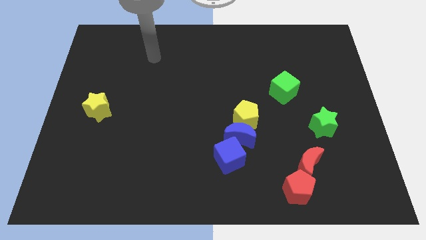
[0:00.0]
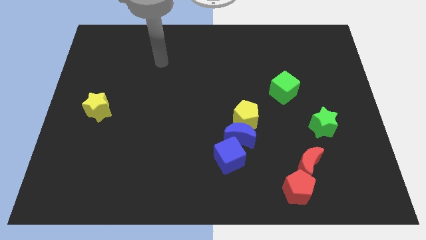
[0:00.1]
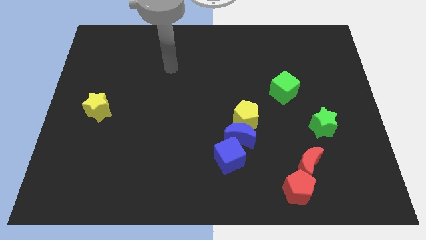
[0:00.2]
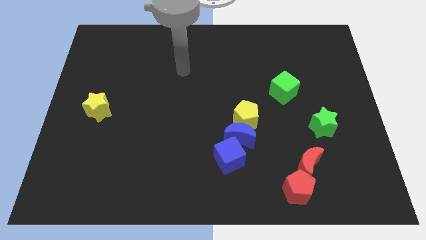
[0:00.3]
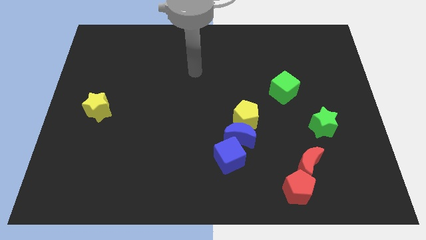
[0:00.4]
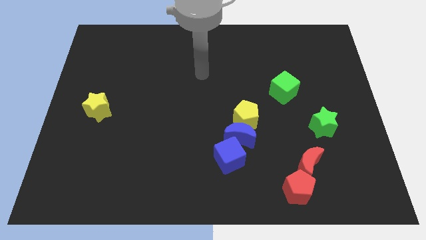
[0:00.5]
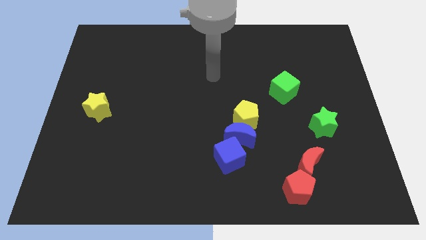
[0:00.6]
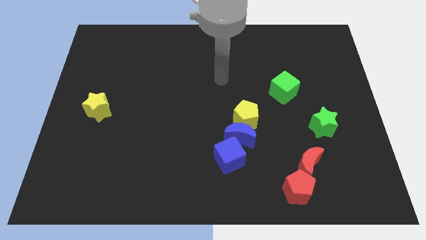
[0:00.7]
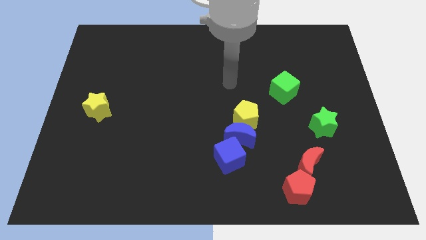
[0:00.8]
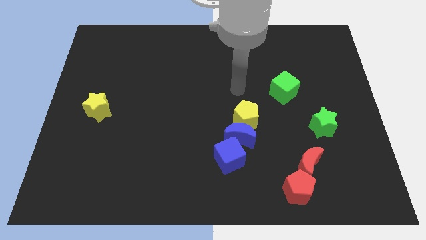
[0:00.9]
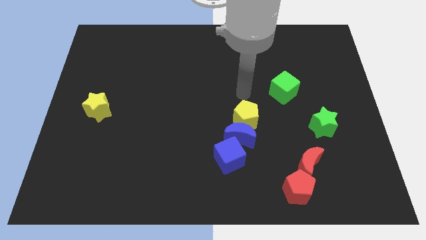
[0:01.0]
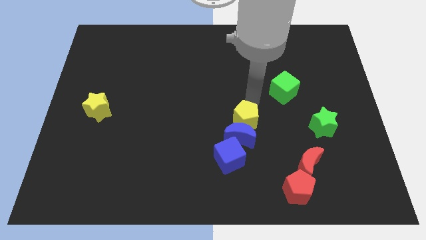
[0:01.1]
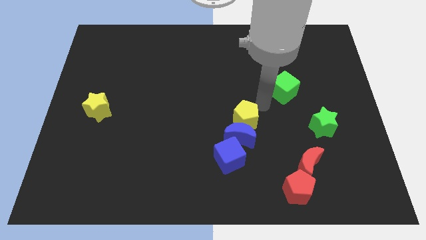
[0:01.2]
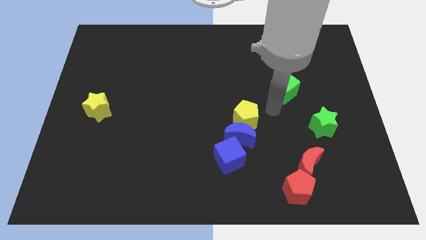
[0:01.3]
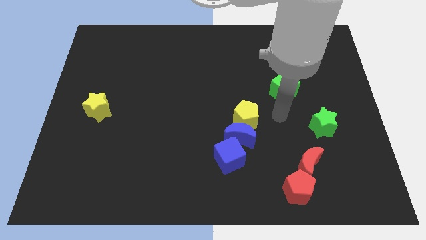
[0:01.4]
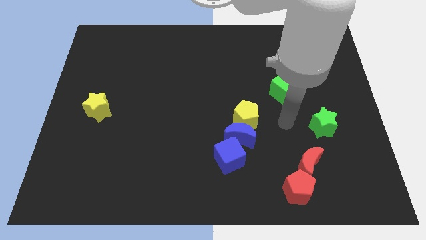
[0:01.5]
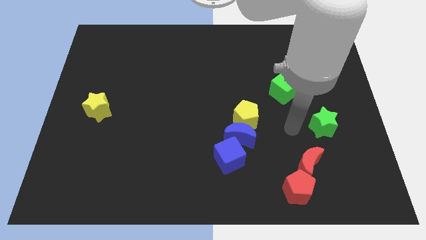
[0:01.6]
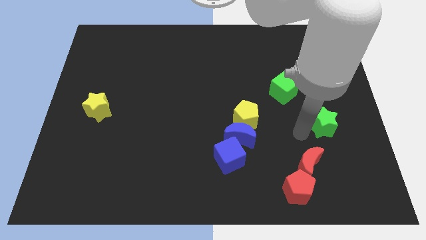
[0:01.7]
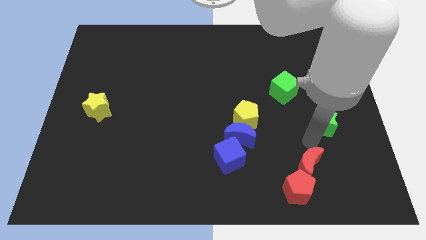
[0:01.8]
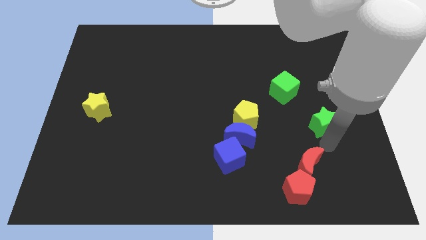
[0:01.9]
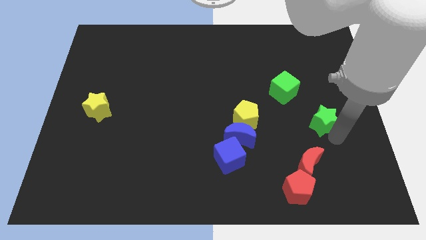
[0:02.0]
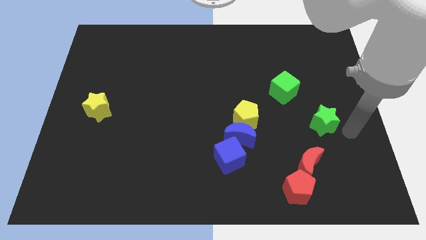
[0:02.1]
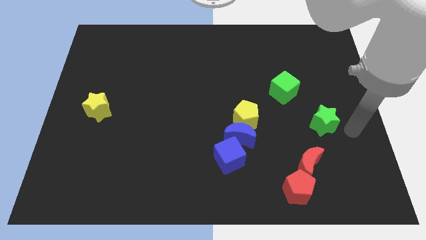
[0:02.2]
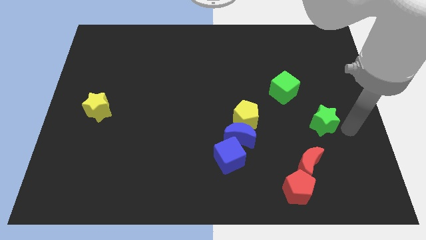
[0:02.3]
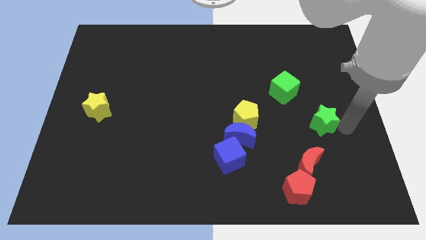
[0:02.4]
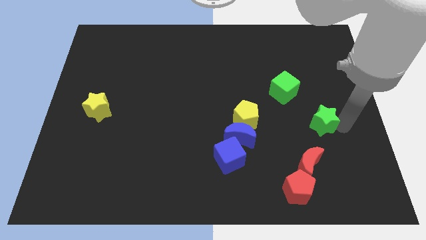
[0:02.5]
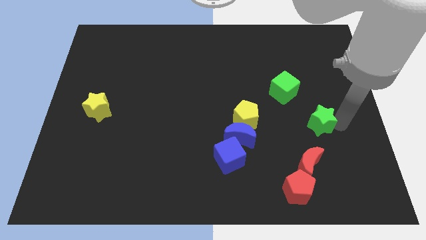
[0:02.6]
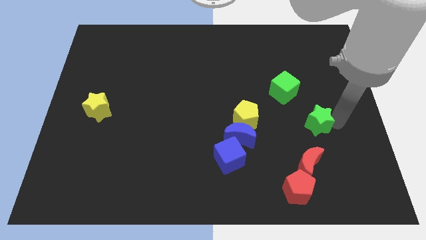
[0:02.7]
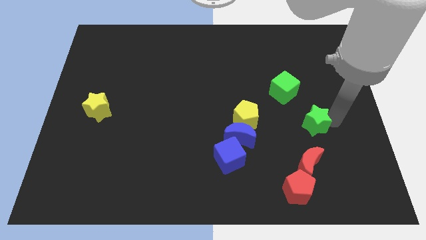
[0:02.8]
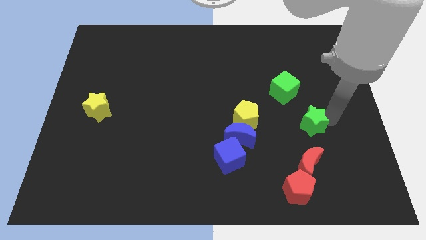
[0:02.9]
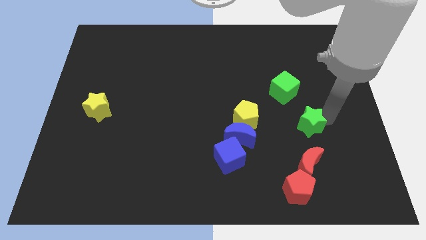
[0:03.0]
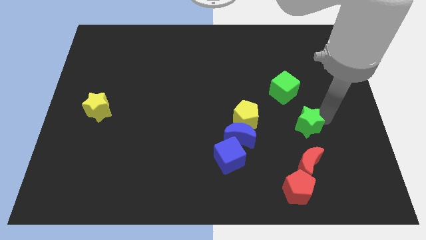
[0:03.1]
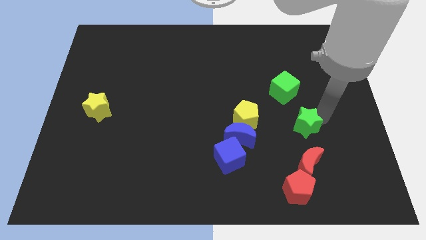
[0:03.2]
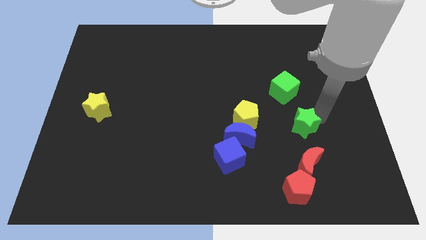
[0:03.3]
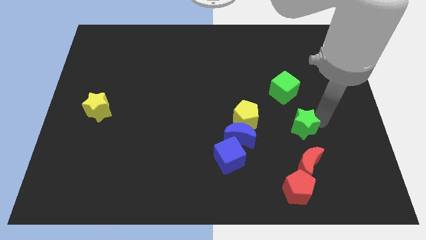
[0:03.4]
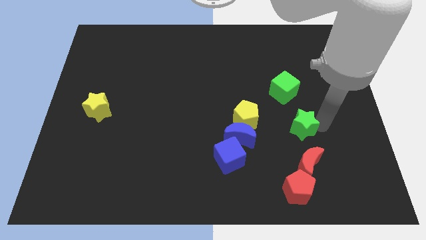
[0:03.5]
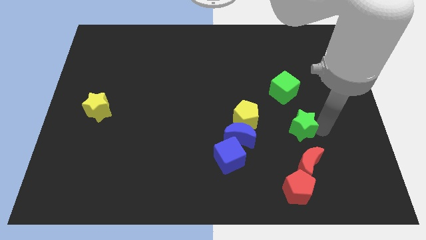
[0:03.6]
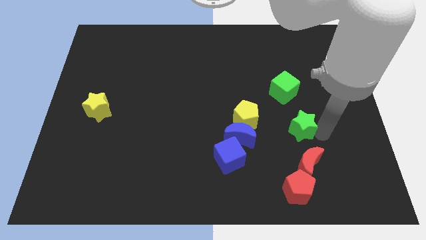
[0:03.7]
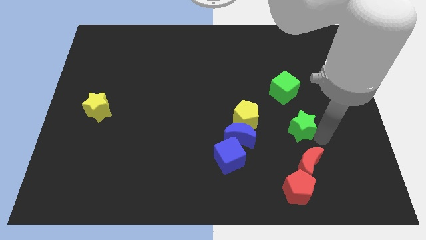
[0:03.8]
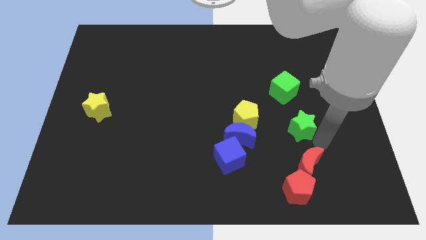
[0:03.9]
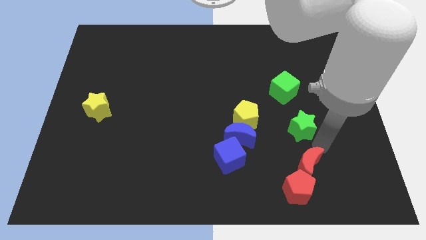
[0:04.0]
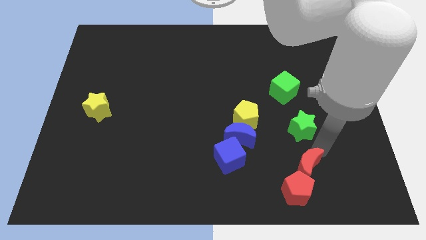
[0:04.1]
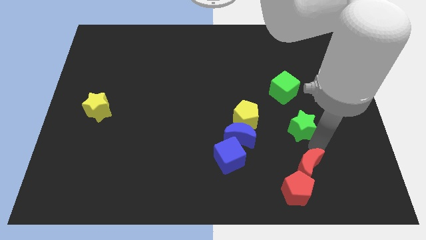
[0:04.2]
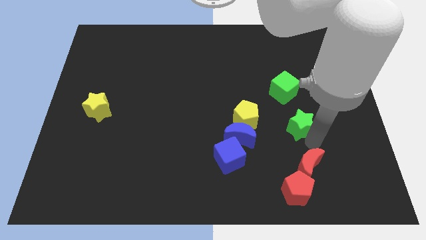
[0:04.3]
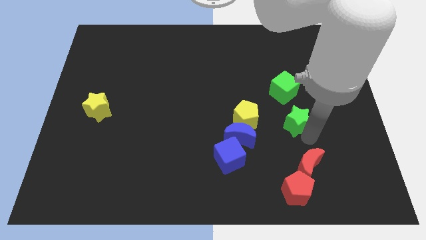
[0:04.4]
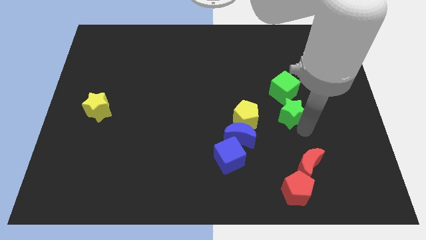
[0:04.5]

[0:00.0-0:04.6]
slide the green star up and left diagonally somewhat

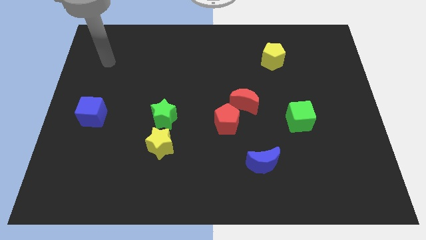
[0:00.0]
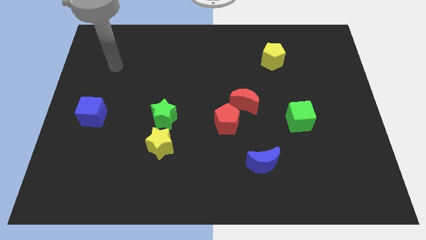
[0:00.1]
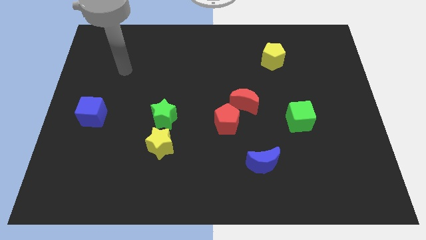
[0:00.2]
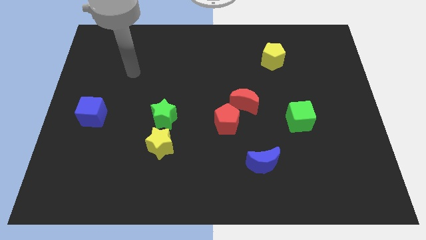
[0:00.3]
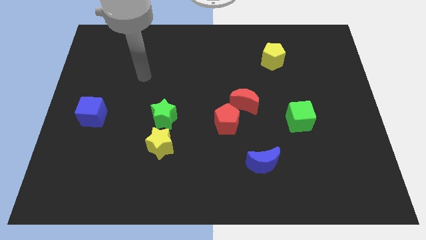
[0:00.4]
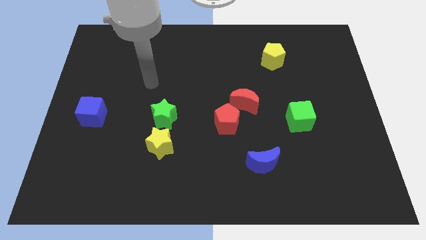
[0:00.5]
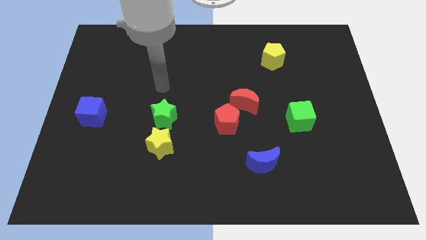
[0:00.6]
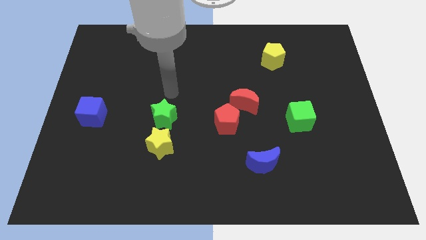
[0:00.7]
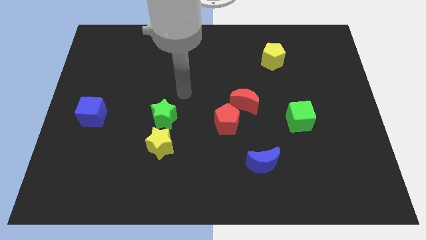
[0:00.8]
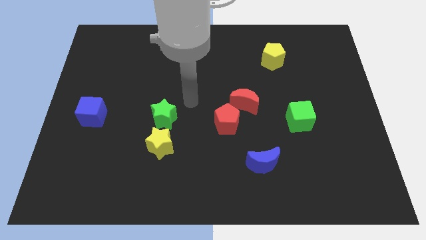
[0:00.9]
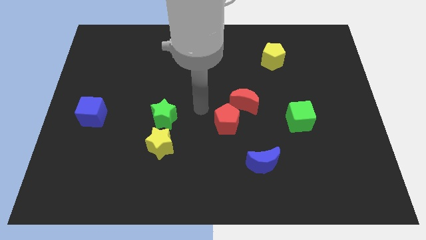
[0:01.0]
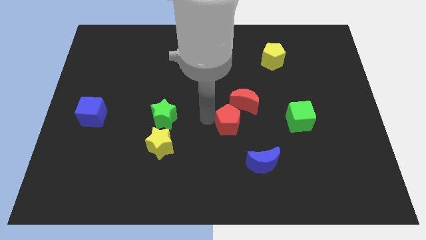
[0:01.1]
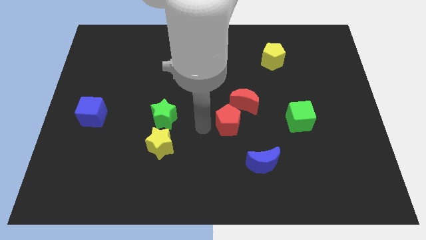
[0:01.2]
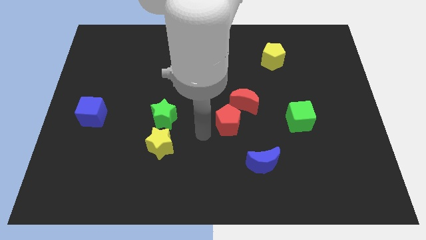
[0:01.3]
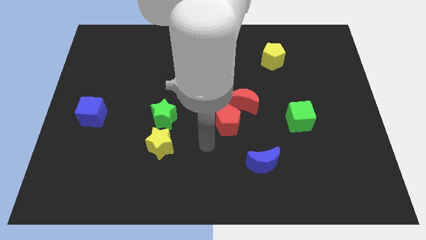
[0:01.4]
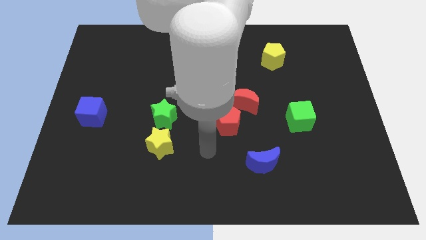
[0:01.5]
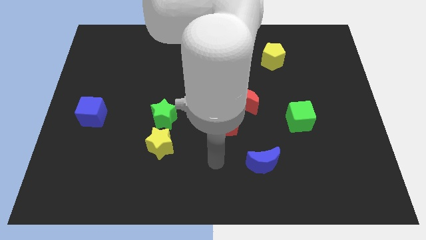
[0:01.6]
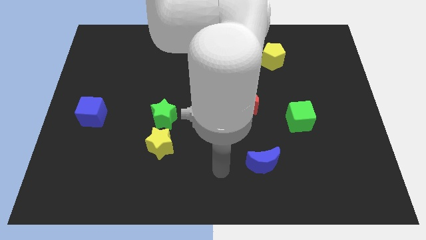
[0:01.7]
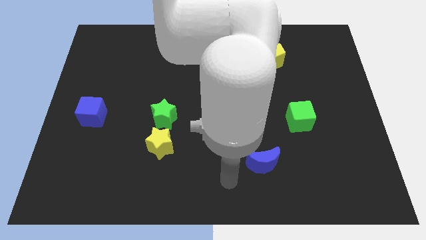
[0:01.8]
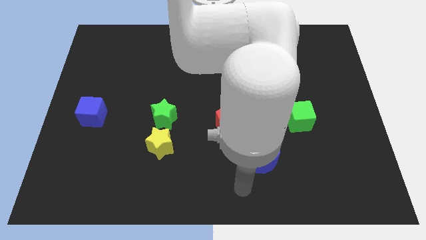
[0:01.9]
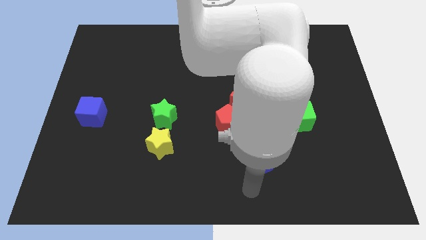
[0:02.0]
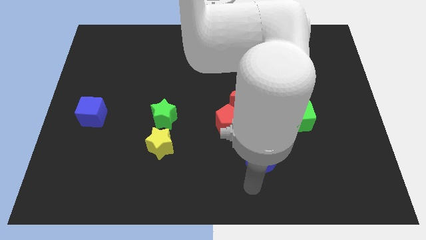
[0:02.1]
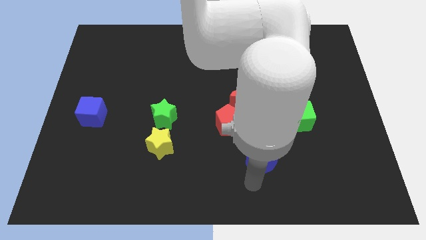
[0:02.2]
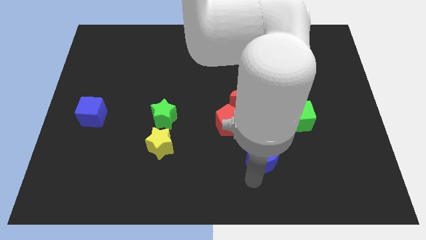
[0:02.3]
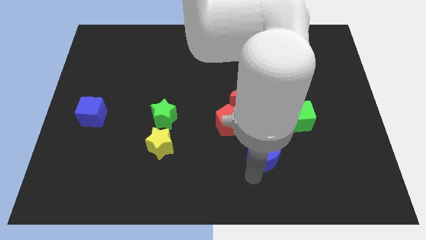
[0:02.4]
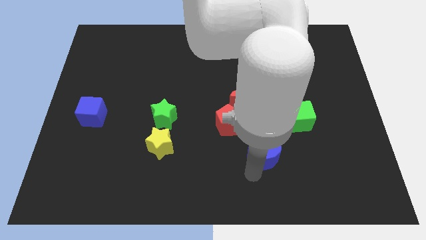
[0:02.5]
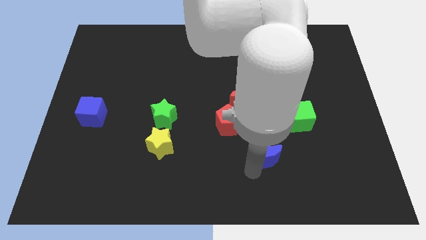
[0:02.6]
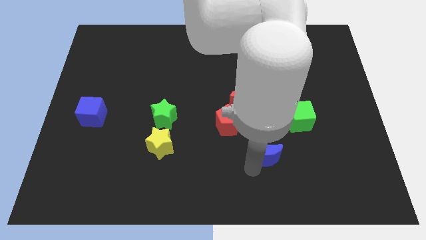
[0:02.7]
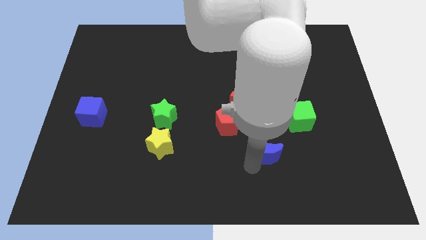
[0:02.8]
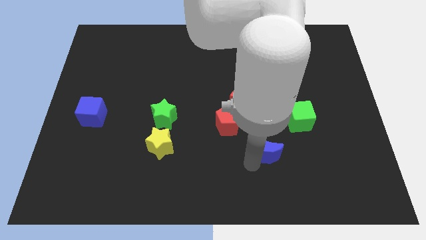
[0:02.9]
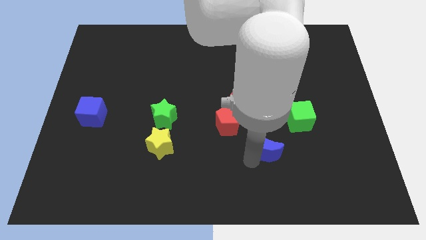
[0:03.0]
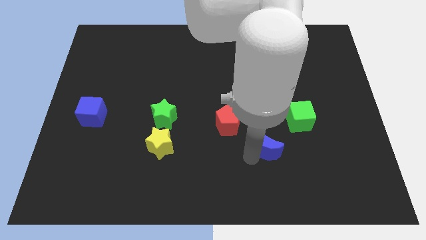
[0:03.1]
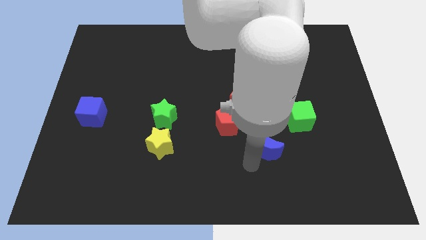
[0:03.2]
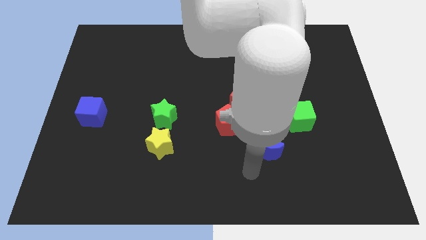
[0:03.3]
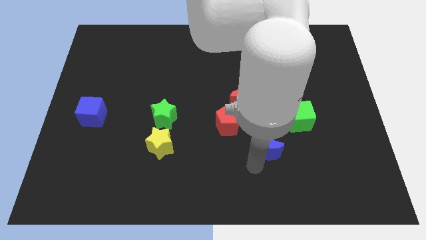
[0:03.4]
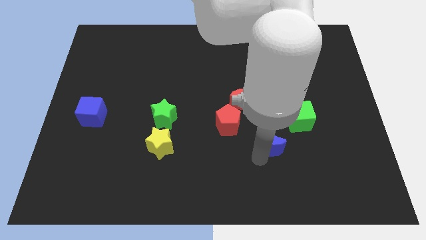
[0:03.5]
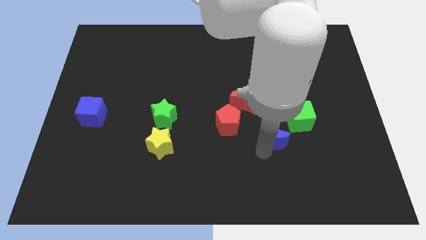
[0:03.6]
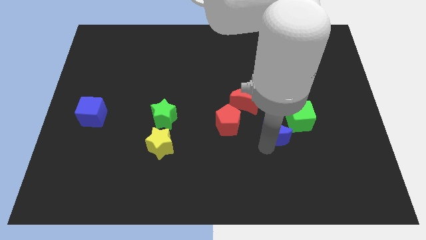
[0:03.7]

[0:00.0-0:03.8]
push the blue moon somewhat upwards
